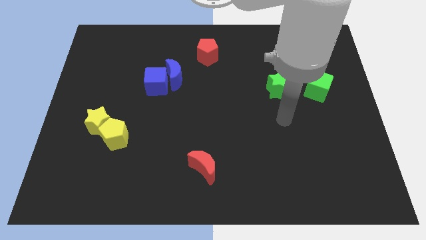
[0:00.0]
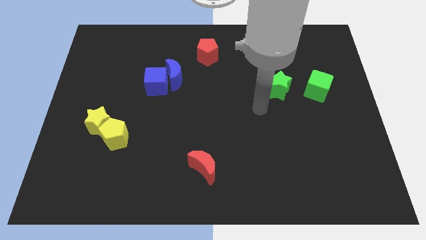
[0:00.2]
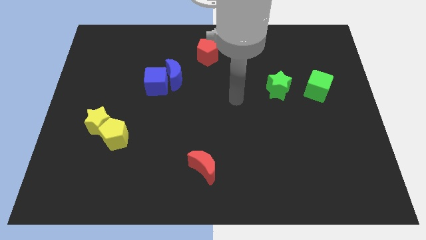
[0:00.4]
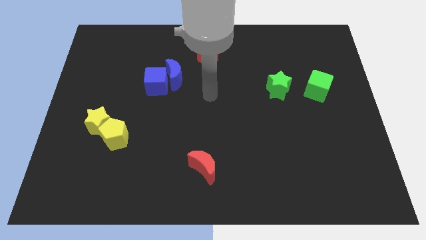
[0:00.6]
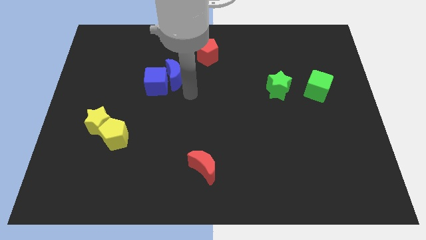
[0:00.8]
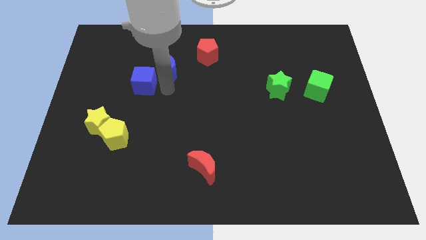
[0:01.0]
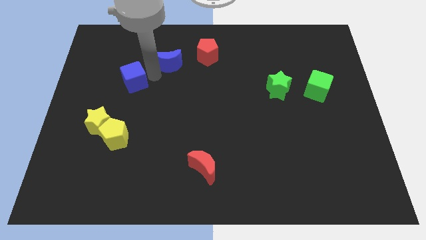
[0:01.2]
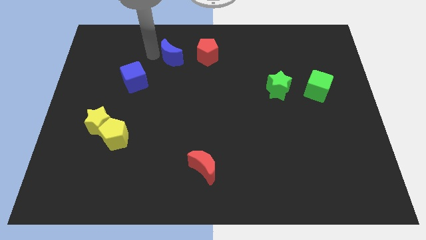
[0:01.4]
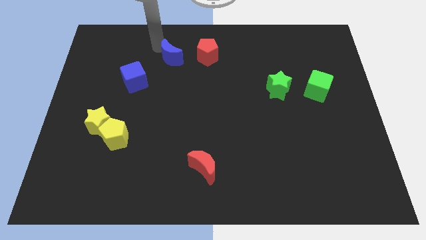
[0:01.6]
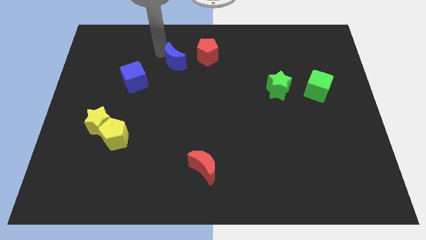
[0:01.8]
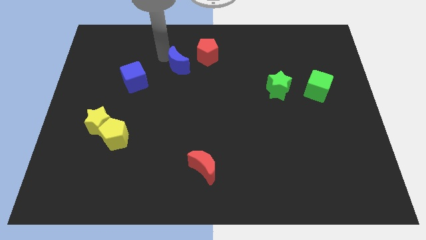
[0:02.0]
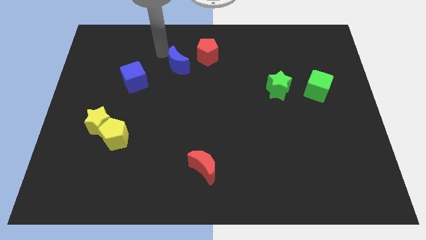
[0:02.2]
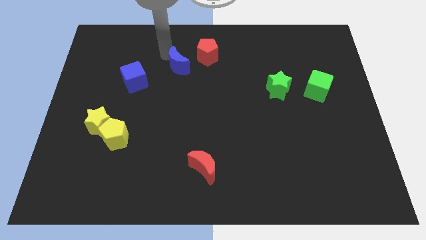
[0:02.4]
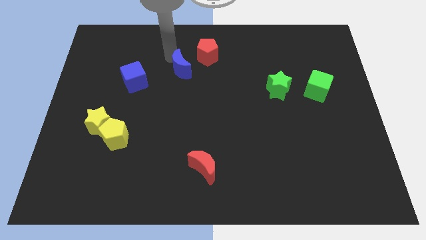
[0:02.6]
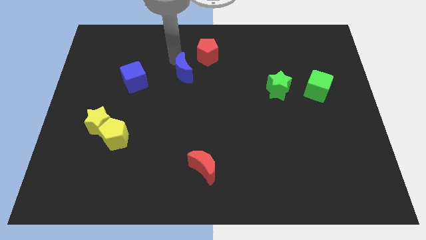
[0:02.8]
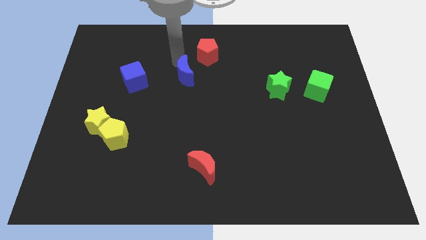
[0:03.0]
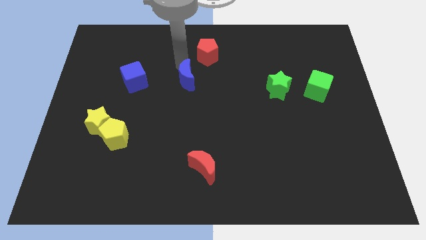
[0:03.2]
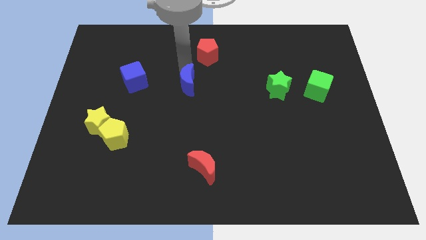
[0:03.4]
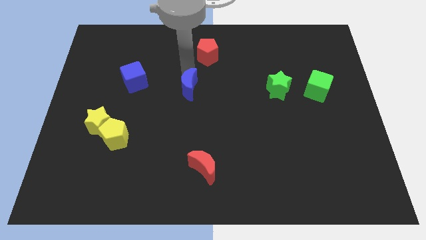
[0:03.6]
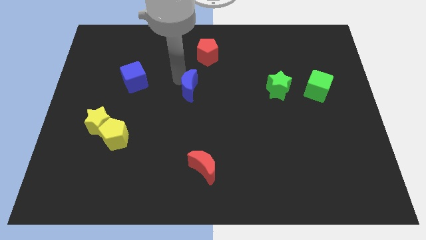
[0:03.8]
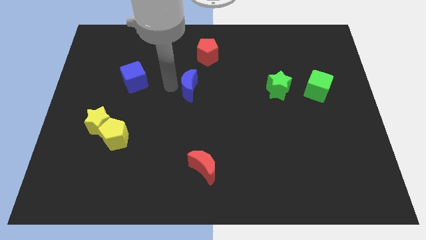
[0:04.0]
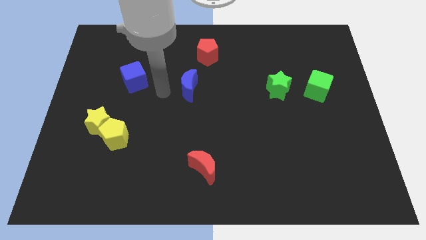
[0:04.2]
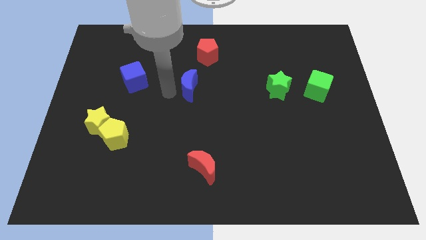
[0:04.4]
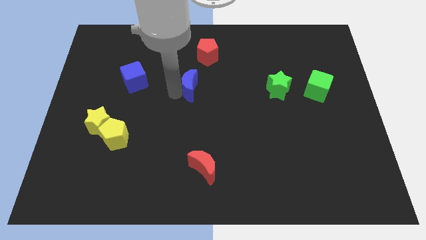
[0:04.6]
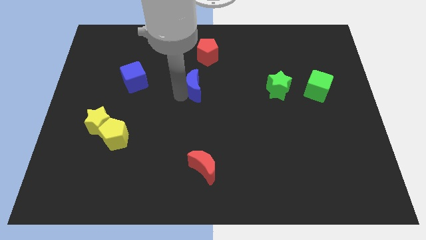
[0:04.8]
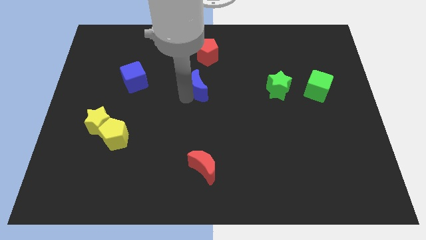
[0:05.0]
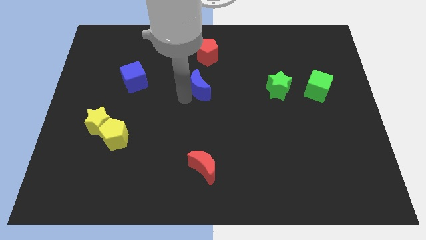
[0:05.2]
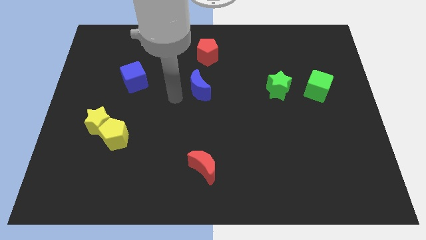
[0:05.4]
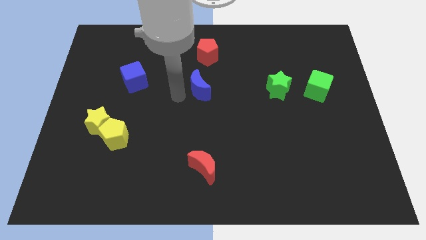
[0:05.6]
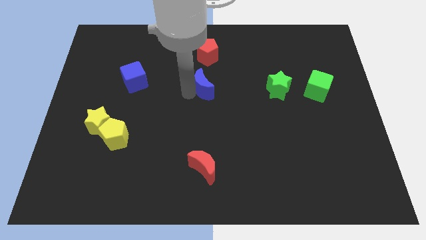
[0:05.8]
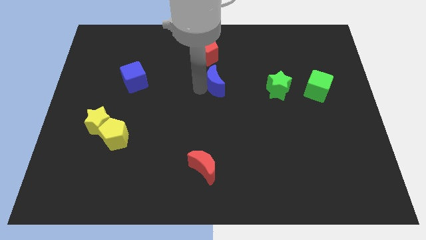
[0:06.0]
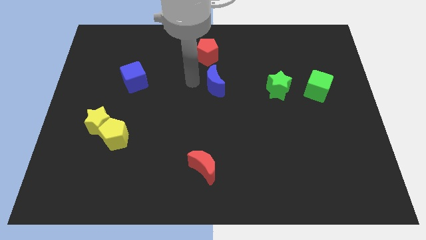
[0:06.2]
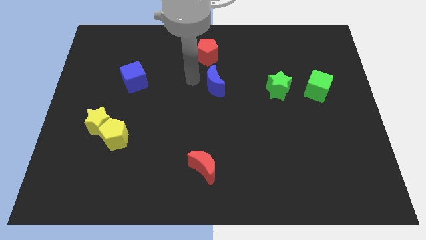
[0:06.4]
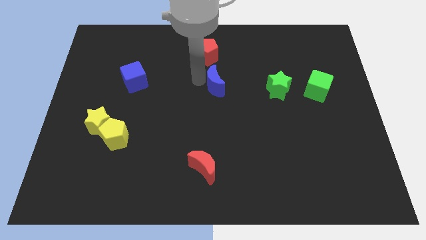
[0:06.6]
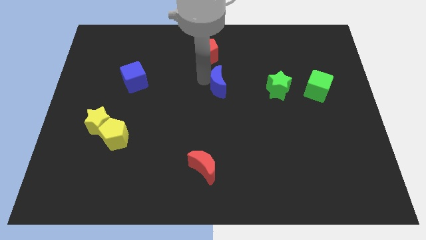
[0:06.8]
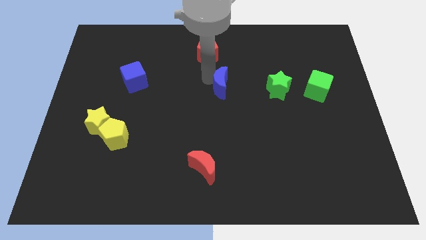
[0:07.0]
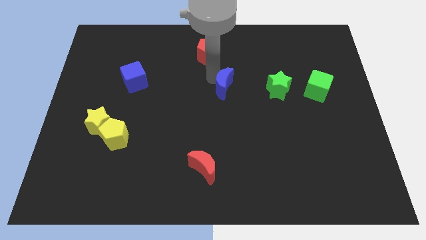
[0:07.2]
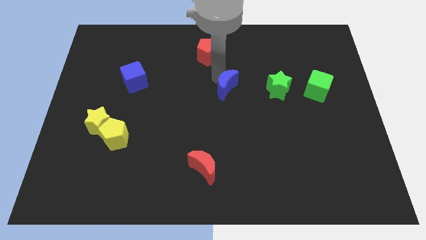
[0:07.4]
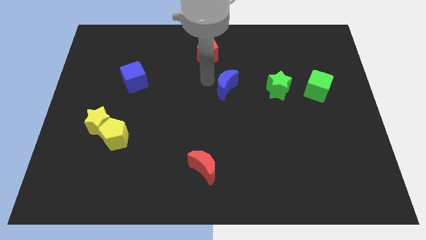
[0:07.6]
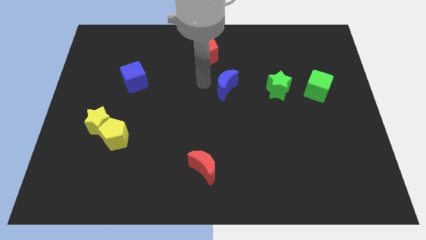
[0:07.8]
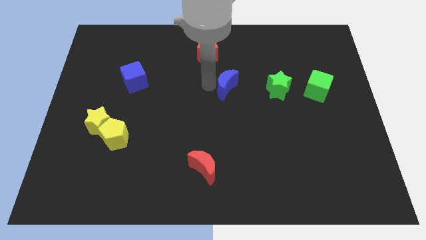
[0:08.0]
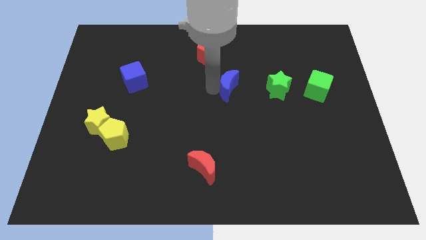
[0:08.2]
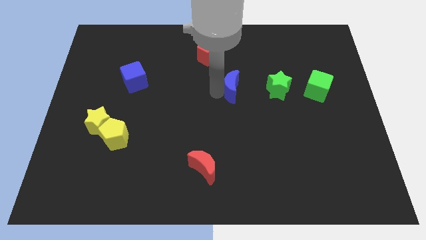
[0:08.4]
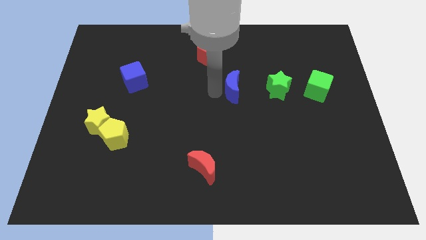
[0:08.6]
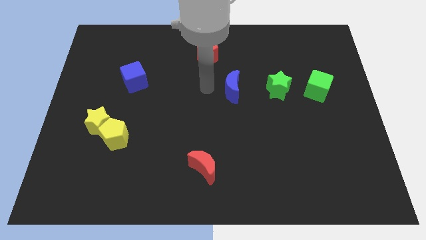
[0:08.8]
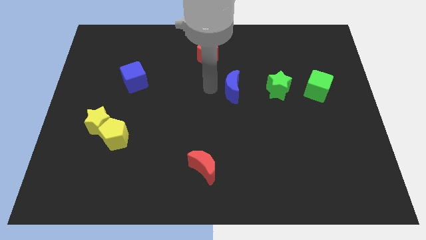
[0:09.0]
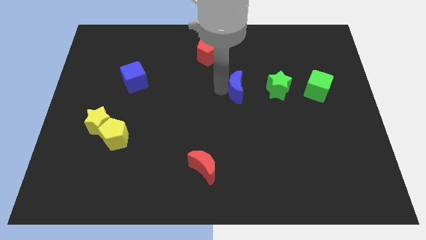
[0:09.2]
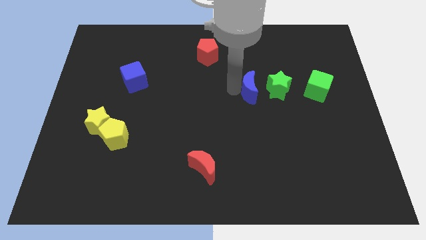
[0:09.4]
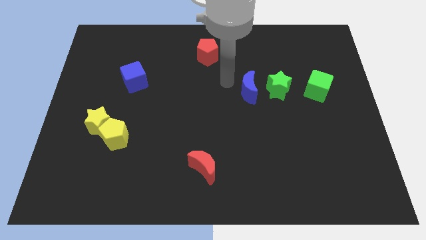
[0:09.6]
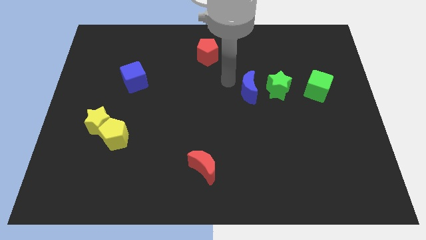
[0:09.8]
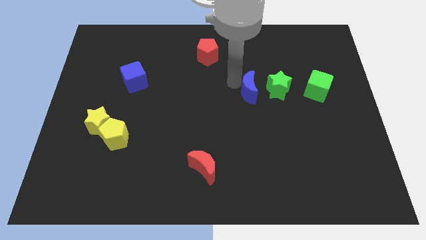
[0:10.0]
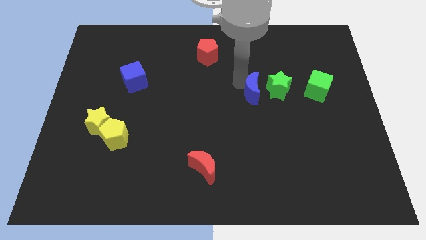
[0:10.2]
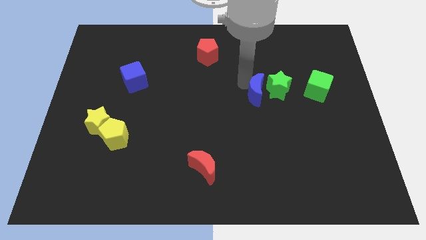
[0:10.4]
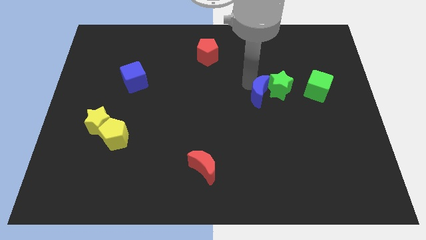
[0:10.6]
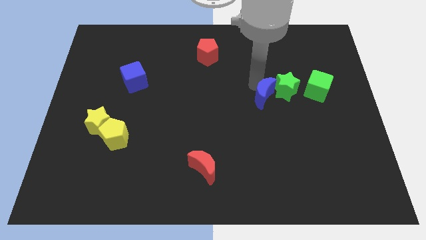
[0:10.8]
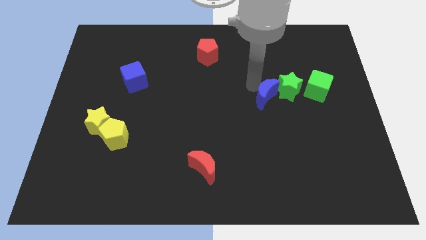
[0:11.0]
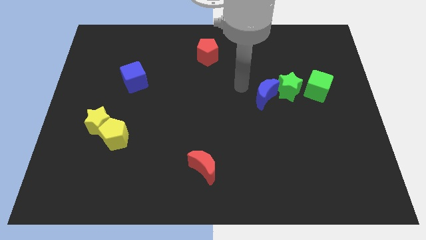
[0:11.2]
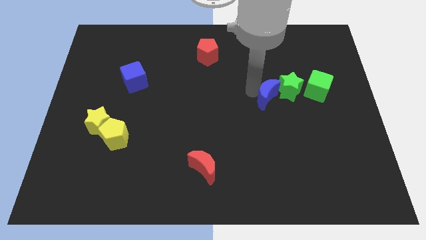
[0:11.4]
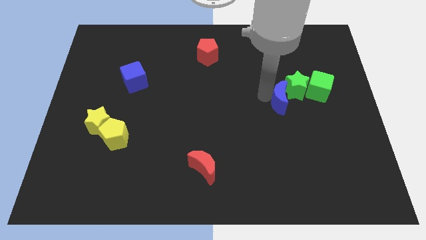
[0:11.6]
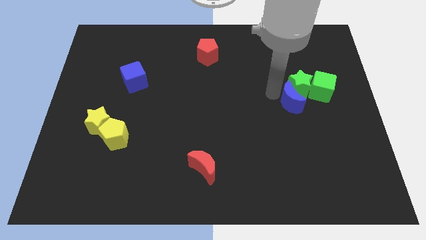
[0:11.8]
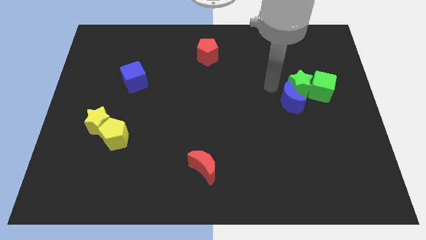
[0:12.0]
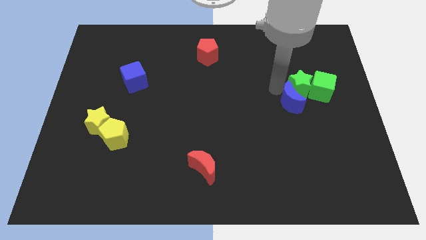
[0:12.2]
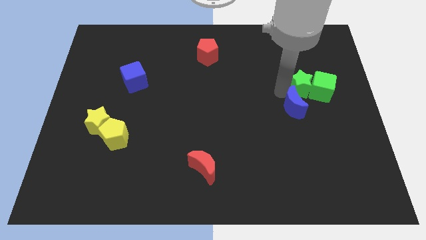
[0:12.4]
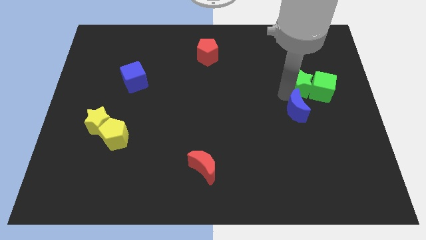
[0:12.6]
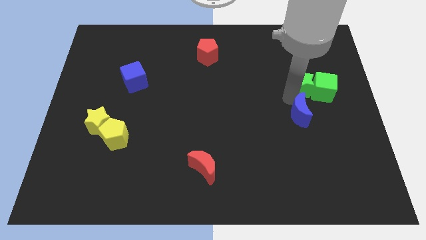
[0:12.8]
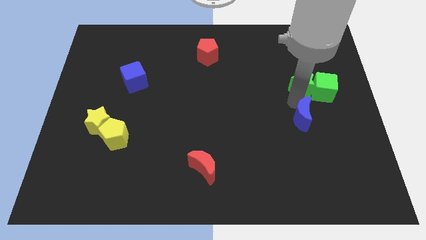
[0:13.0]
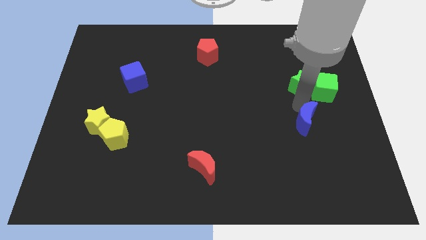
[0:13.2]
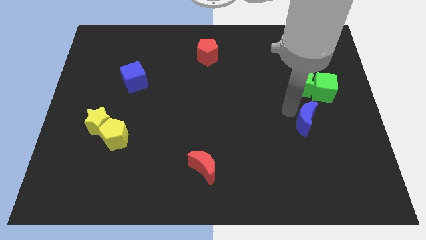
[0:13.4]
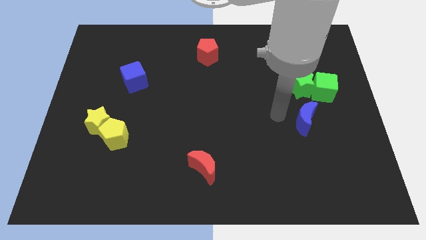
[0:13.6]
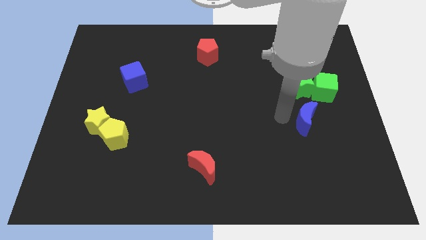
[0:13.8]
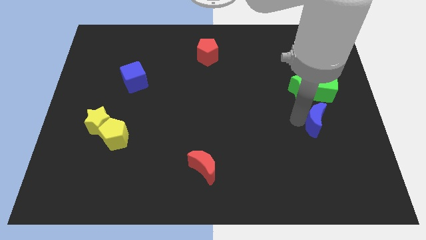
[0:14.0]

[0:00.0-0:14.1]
put the blue moon to the bottom of the green cube

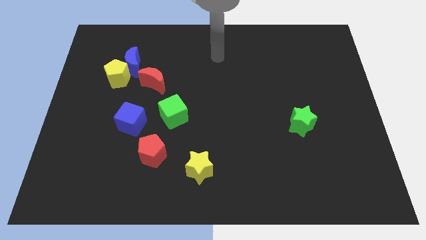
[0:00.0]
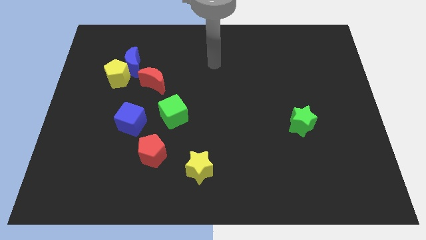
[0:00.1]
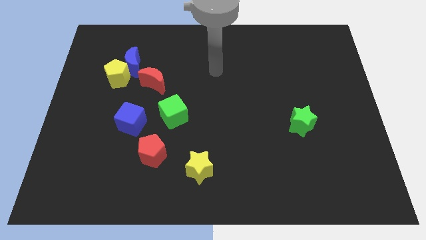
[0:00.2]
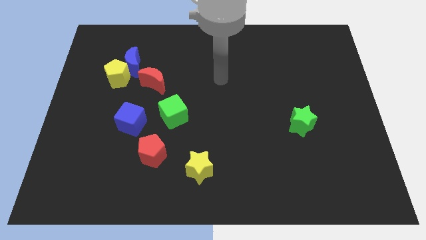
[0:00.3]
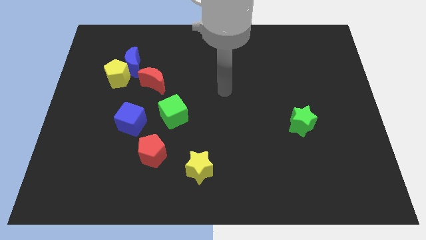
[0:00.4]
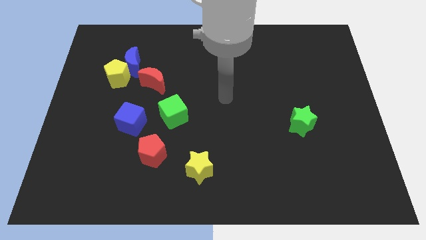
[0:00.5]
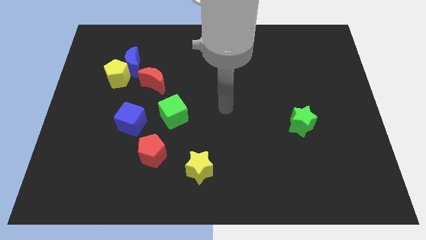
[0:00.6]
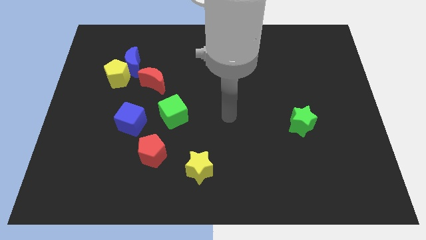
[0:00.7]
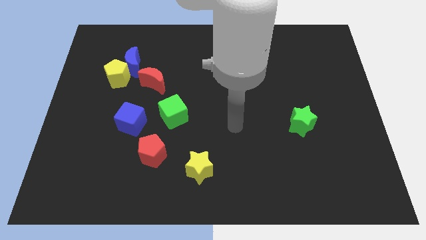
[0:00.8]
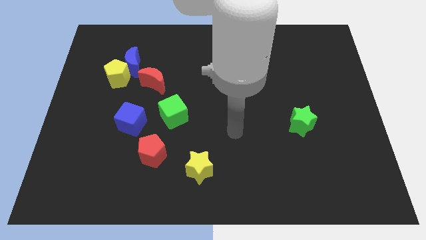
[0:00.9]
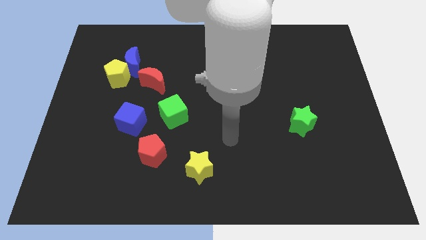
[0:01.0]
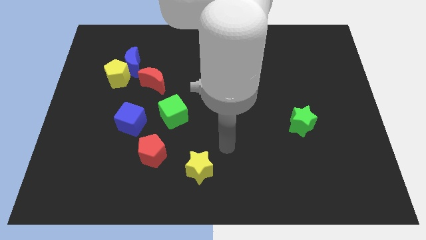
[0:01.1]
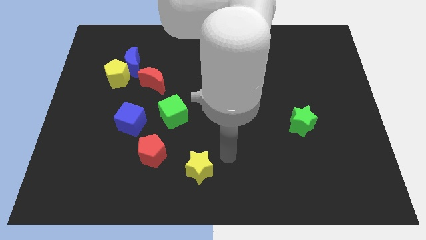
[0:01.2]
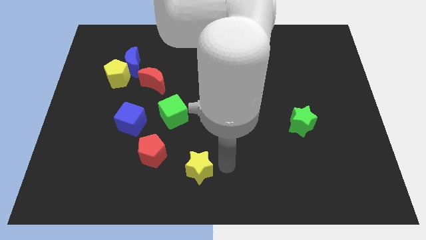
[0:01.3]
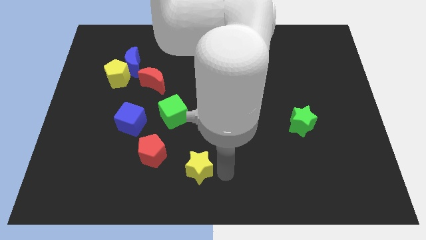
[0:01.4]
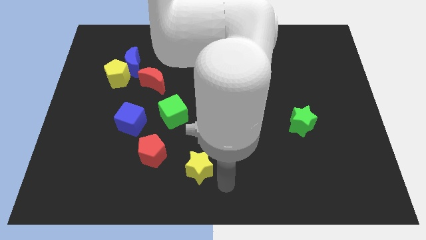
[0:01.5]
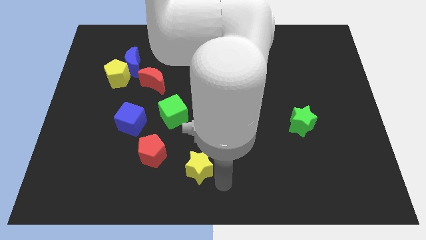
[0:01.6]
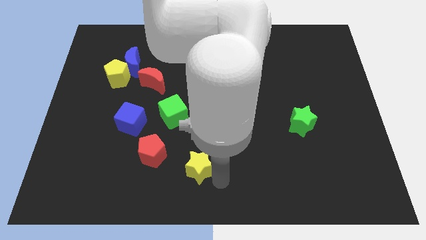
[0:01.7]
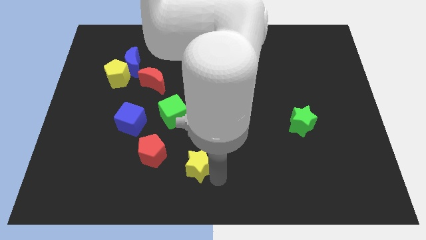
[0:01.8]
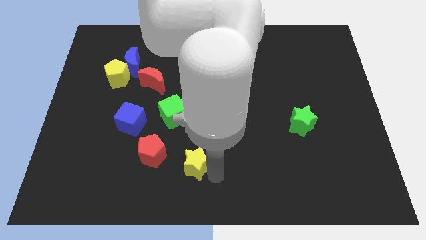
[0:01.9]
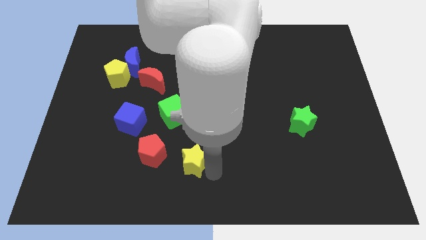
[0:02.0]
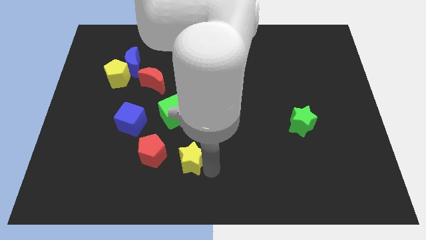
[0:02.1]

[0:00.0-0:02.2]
move the yellow star below the green cube
